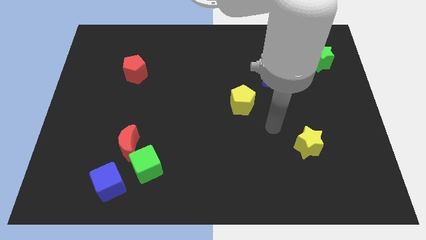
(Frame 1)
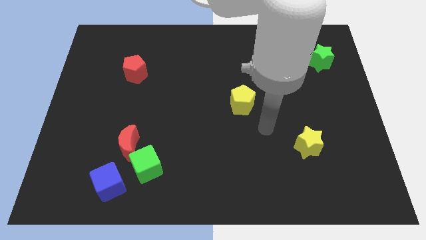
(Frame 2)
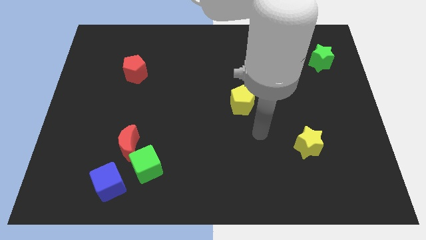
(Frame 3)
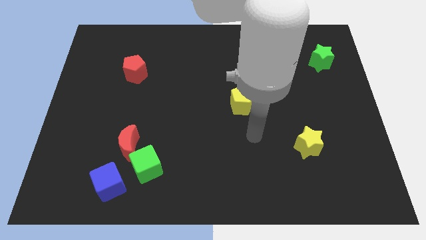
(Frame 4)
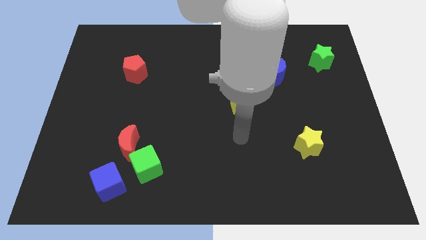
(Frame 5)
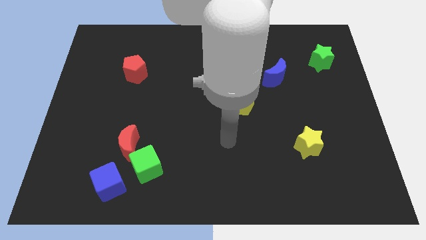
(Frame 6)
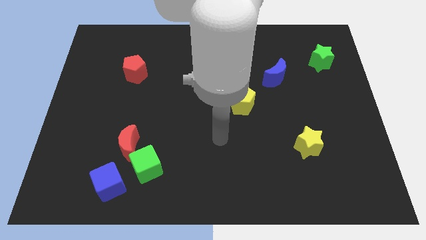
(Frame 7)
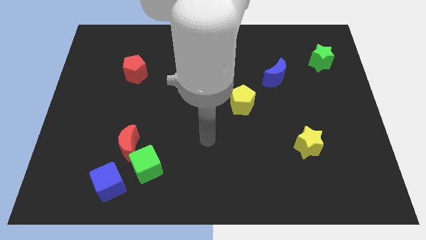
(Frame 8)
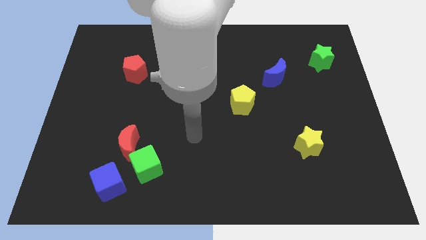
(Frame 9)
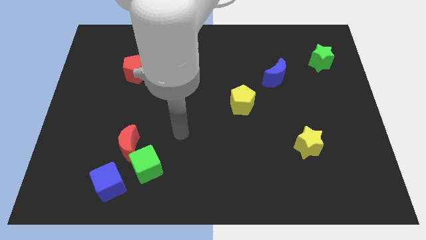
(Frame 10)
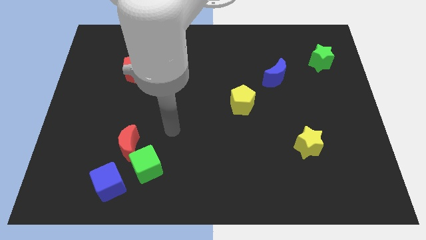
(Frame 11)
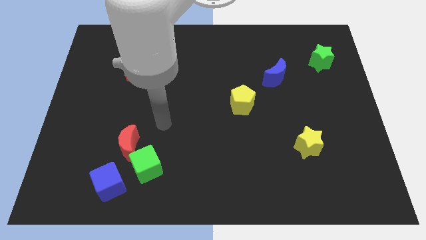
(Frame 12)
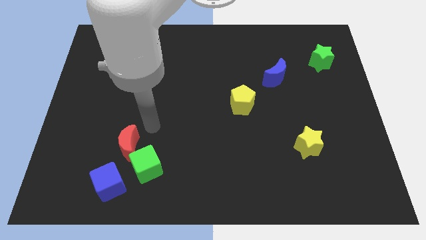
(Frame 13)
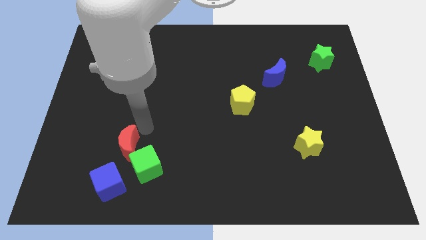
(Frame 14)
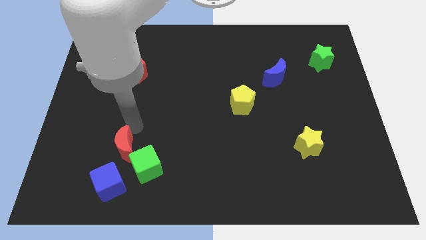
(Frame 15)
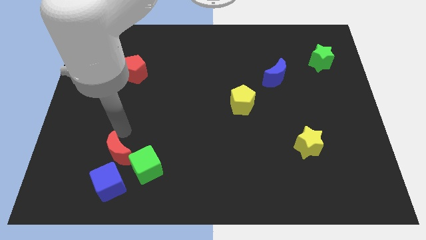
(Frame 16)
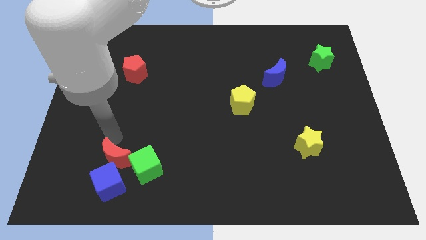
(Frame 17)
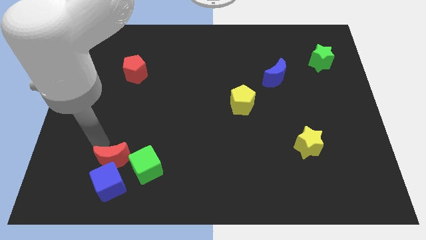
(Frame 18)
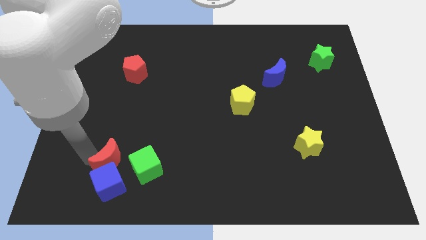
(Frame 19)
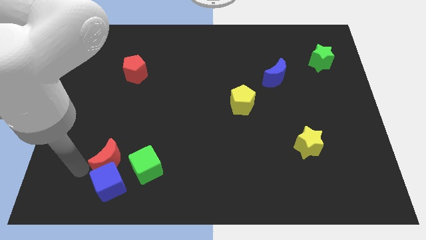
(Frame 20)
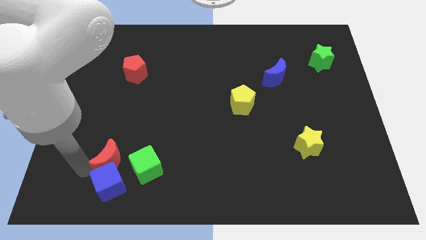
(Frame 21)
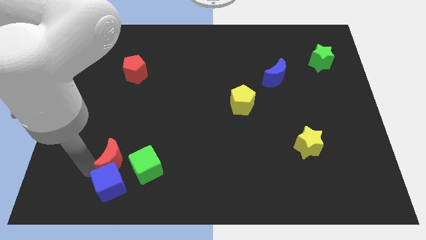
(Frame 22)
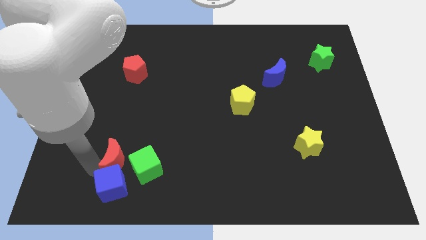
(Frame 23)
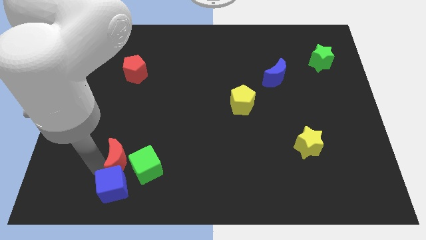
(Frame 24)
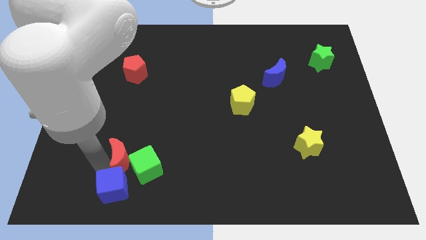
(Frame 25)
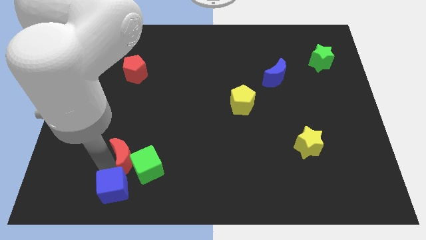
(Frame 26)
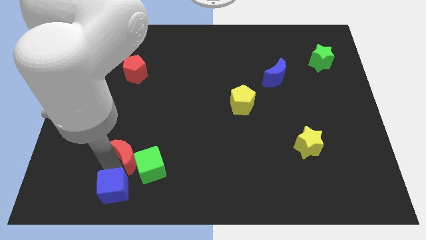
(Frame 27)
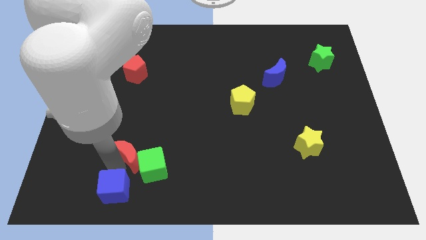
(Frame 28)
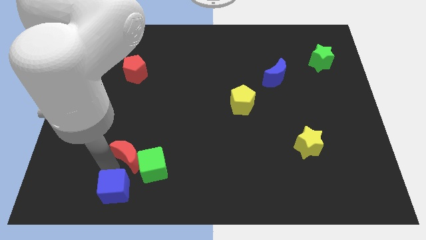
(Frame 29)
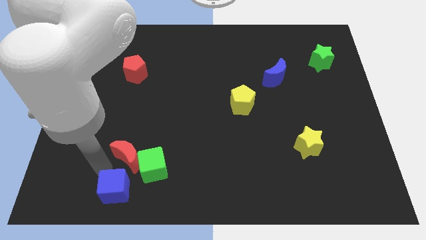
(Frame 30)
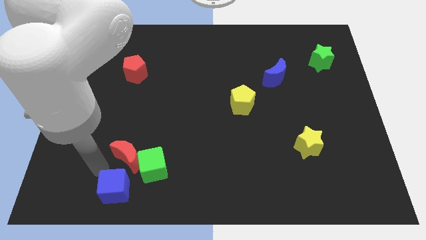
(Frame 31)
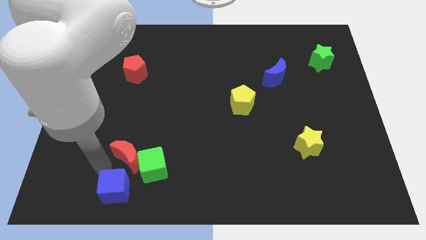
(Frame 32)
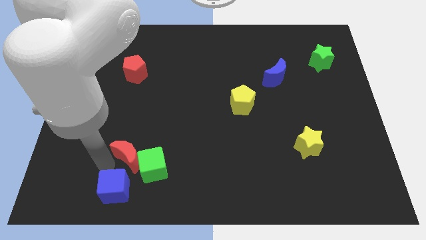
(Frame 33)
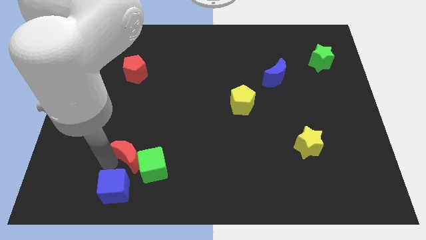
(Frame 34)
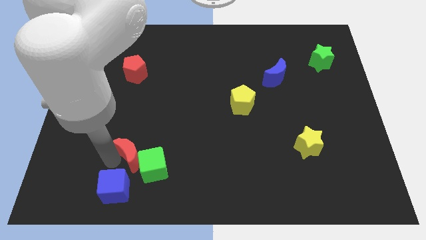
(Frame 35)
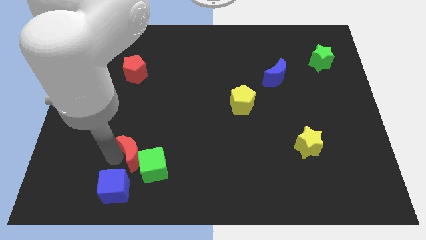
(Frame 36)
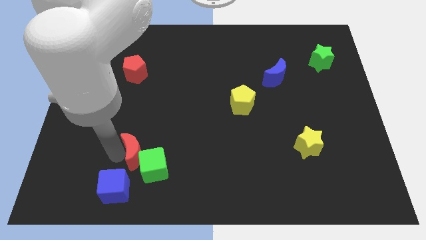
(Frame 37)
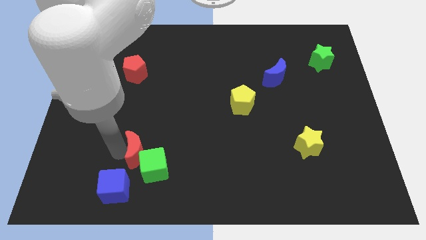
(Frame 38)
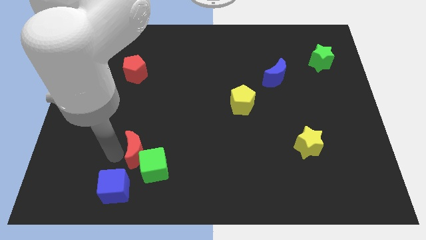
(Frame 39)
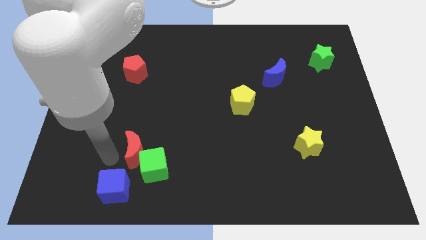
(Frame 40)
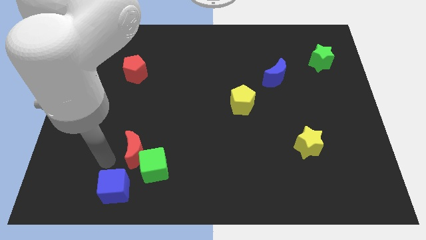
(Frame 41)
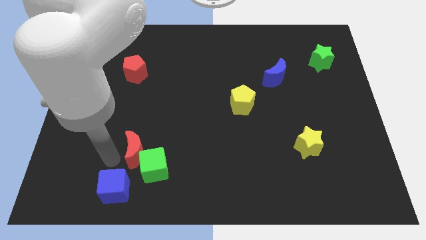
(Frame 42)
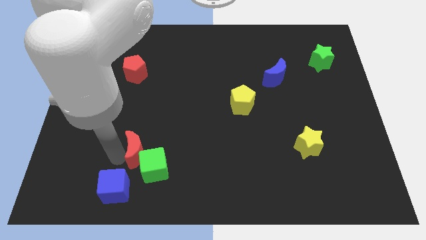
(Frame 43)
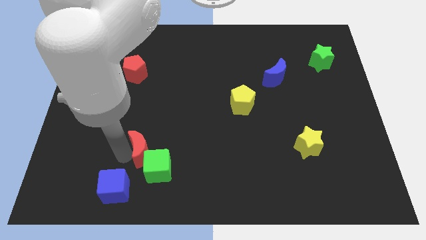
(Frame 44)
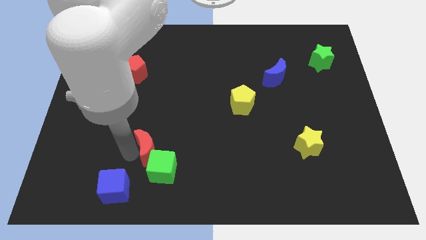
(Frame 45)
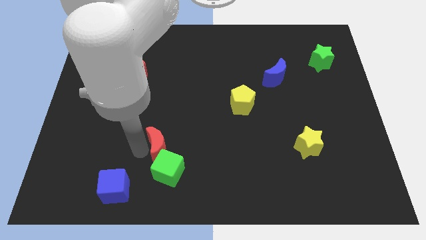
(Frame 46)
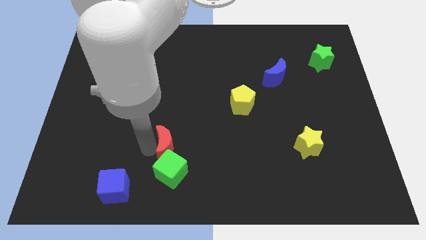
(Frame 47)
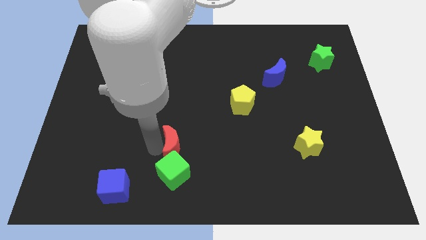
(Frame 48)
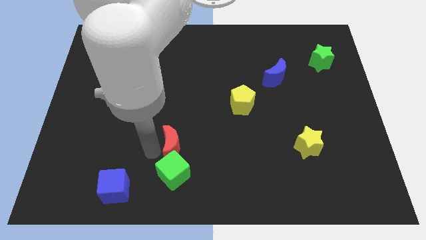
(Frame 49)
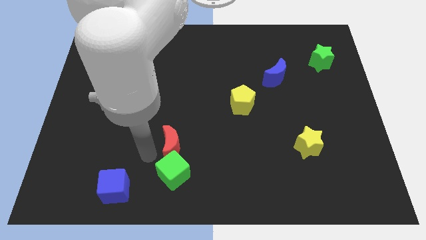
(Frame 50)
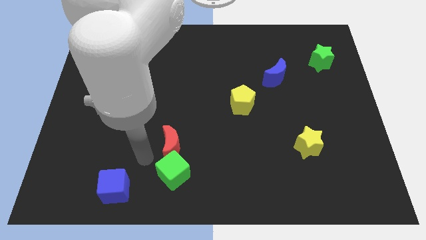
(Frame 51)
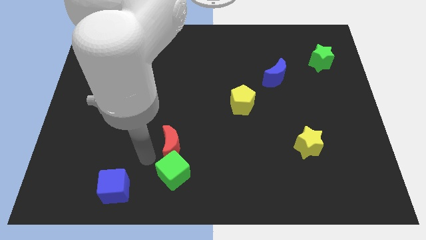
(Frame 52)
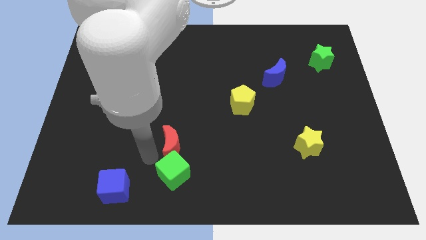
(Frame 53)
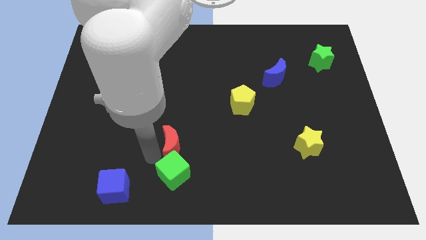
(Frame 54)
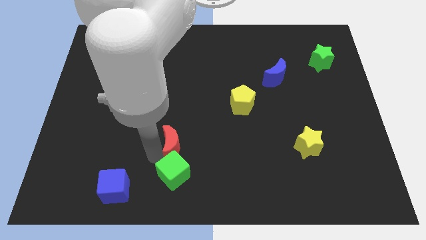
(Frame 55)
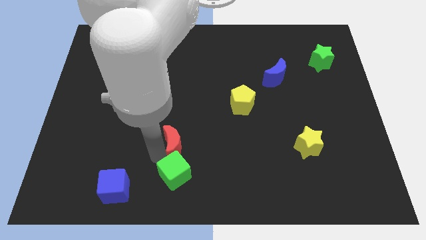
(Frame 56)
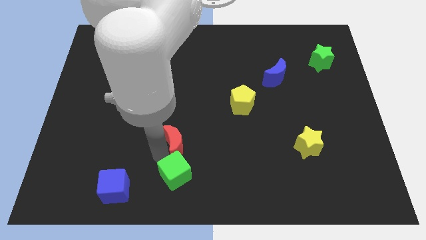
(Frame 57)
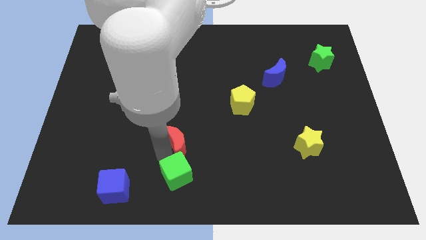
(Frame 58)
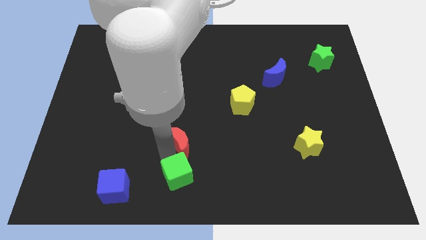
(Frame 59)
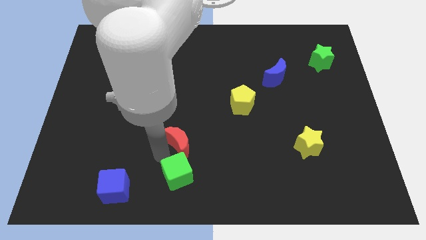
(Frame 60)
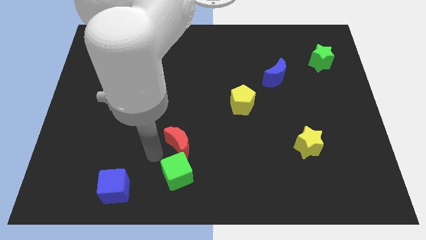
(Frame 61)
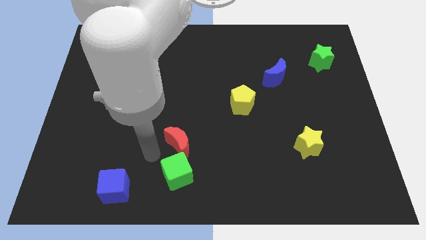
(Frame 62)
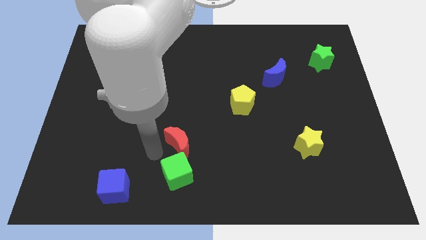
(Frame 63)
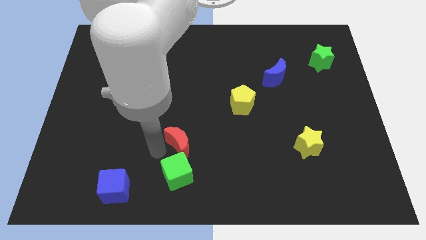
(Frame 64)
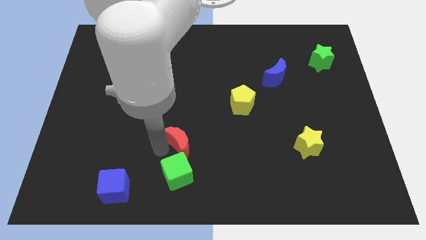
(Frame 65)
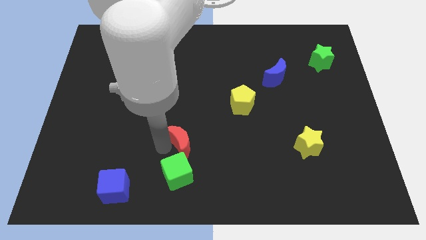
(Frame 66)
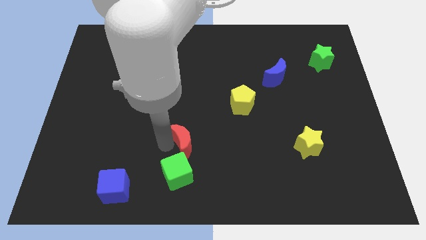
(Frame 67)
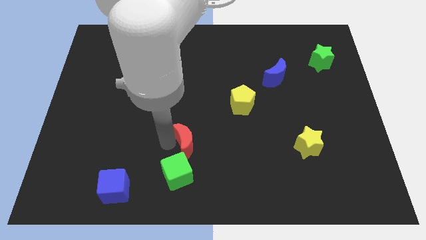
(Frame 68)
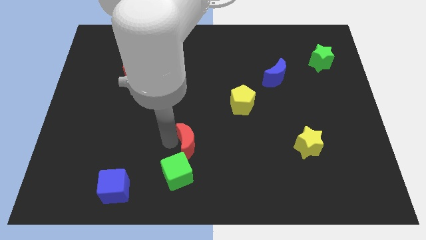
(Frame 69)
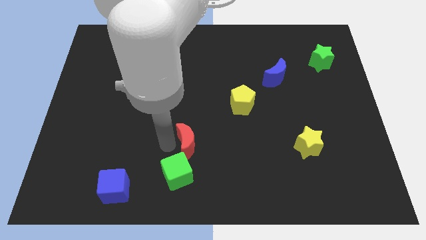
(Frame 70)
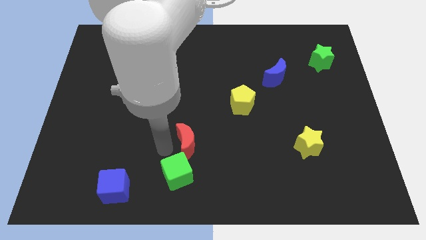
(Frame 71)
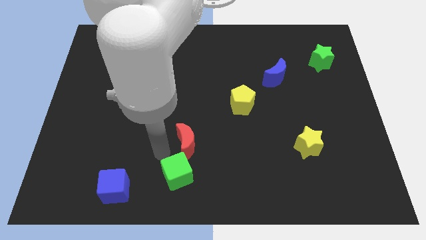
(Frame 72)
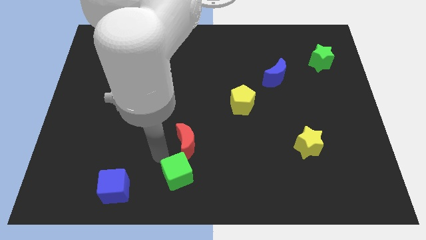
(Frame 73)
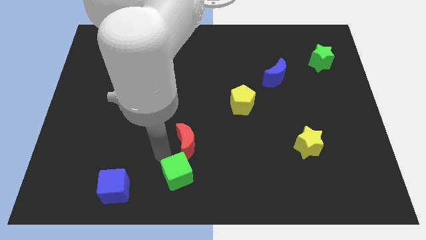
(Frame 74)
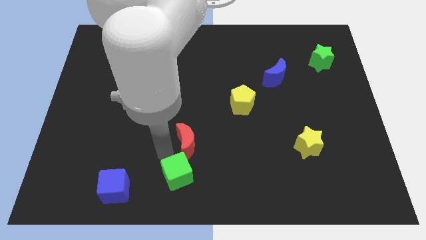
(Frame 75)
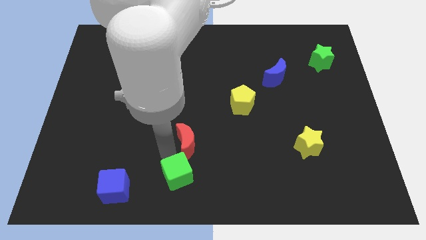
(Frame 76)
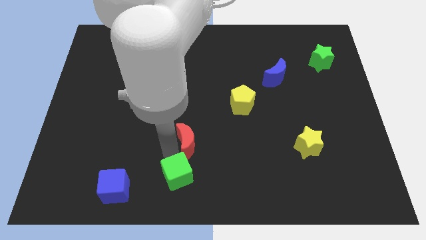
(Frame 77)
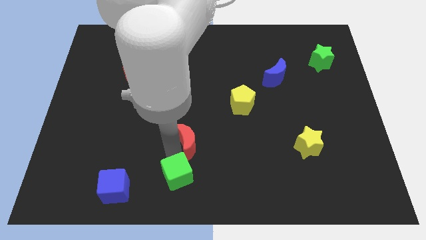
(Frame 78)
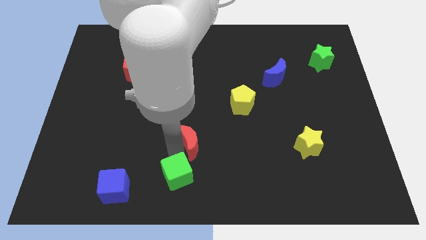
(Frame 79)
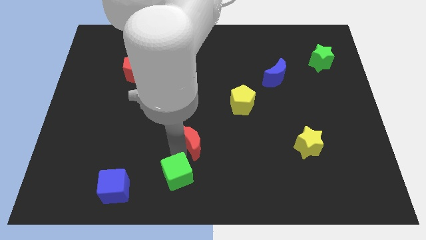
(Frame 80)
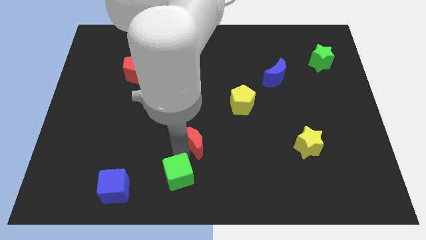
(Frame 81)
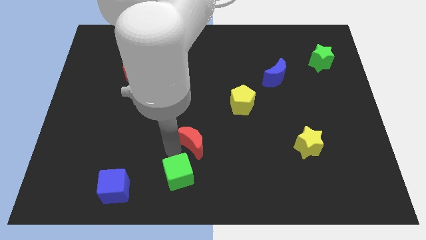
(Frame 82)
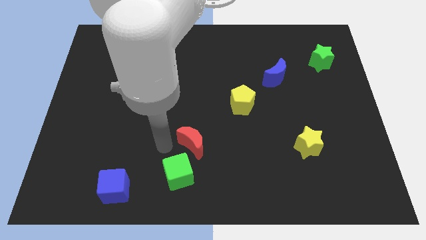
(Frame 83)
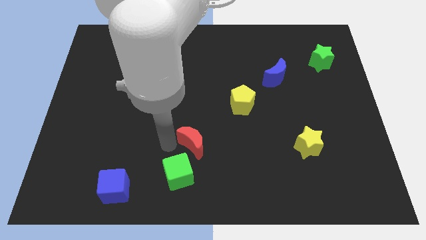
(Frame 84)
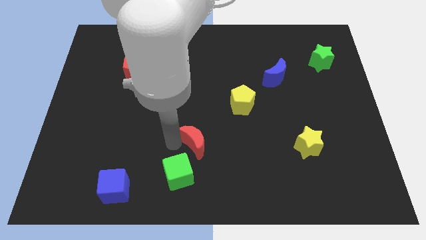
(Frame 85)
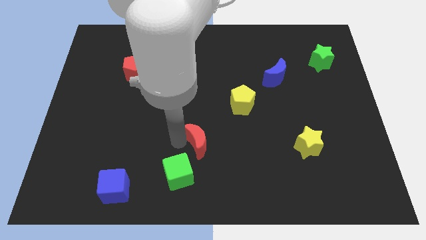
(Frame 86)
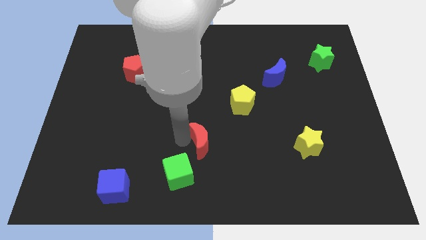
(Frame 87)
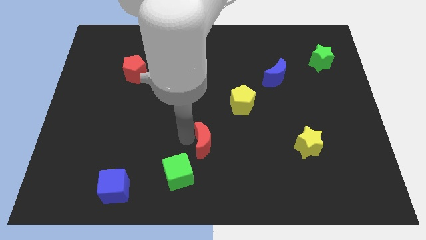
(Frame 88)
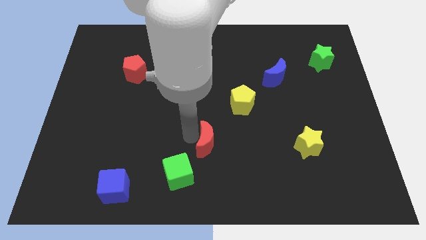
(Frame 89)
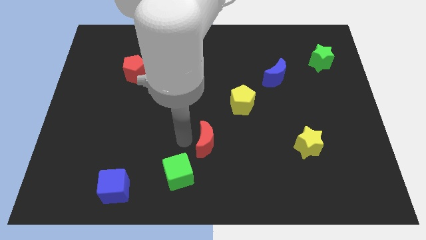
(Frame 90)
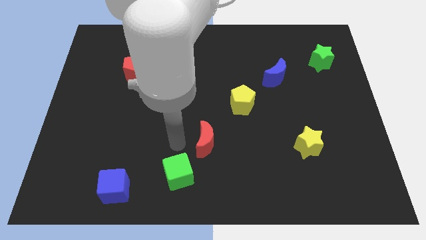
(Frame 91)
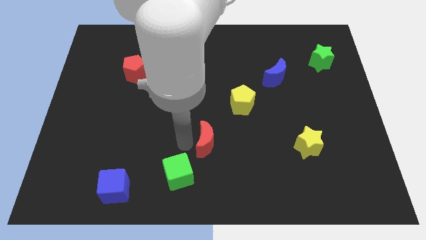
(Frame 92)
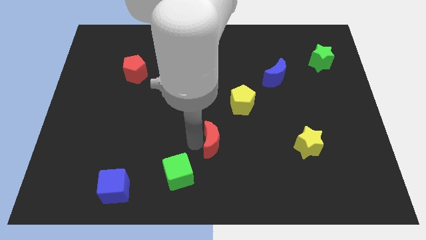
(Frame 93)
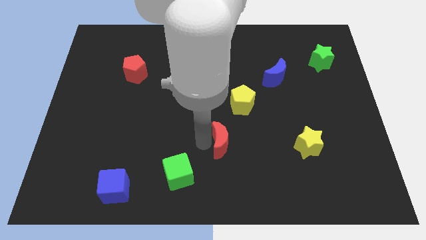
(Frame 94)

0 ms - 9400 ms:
push the red moon to the bottom side of the yellow pentagon
